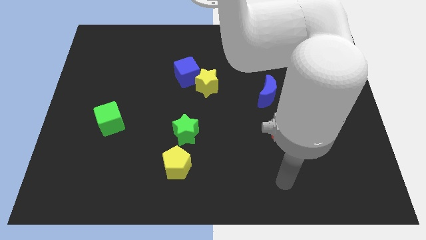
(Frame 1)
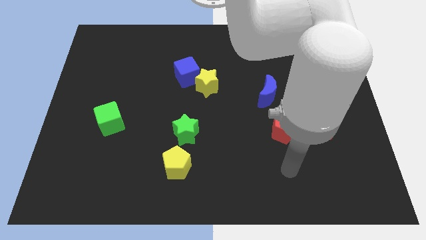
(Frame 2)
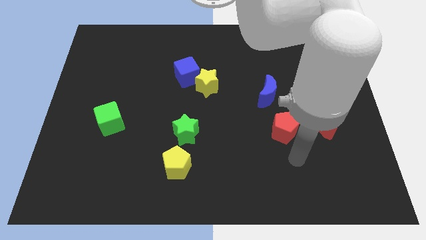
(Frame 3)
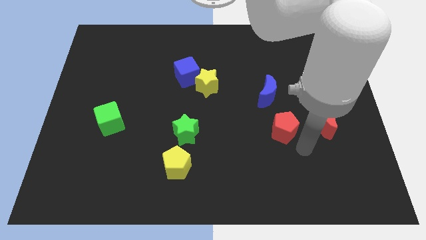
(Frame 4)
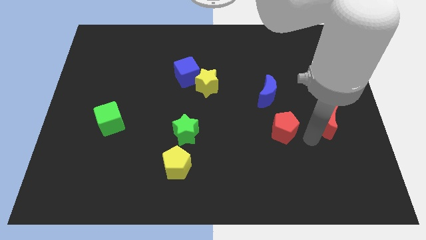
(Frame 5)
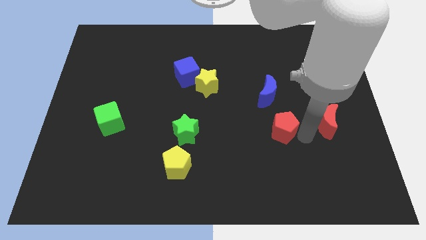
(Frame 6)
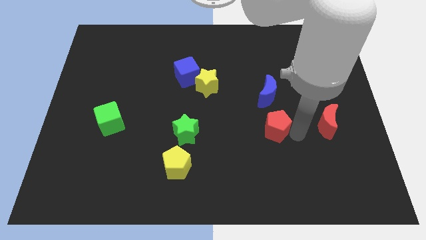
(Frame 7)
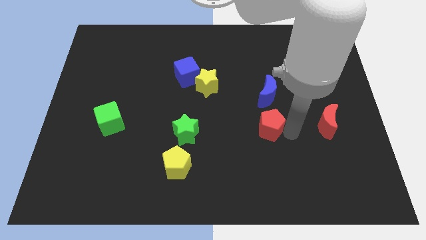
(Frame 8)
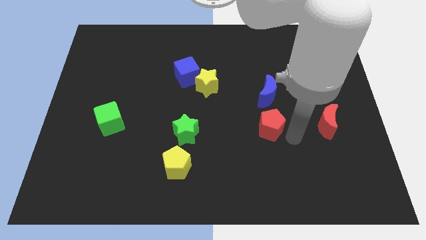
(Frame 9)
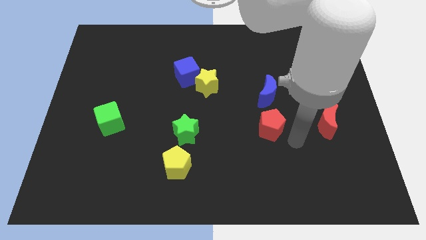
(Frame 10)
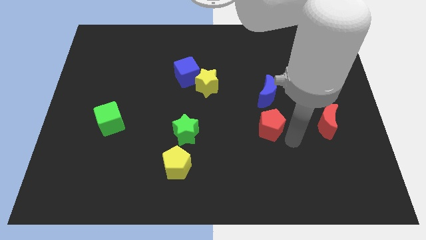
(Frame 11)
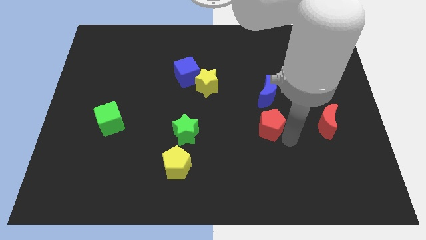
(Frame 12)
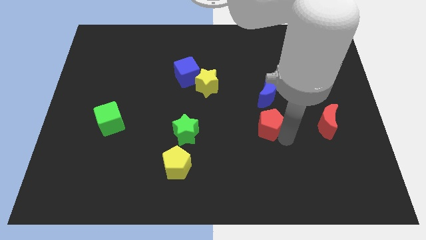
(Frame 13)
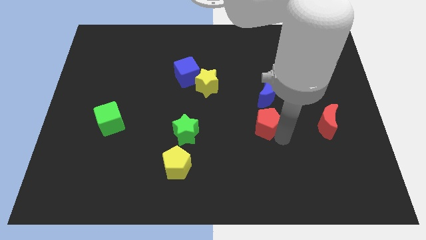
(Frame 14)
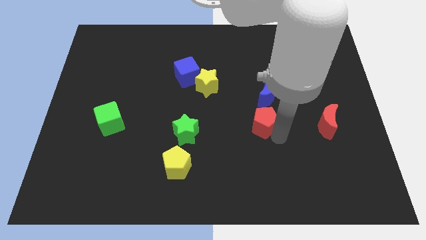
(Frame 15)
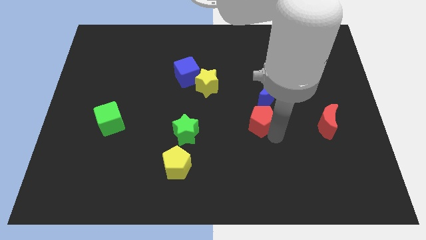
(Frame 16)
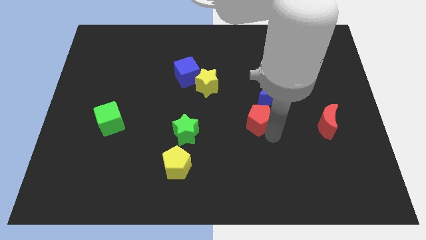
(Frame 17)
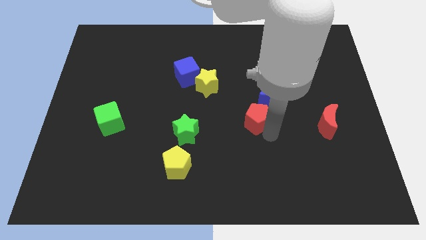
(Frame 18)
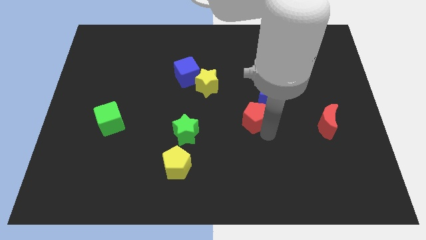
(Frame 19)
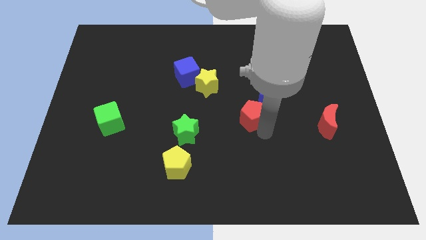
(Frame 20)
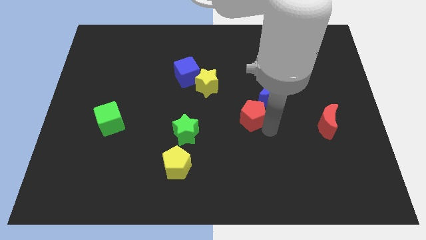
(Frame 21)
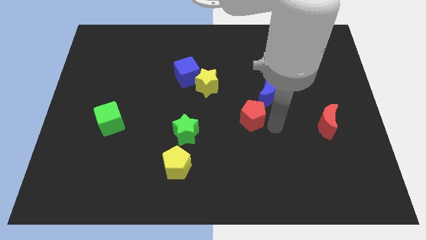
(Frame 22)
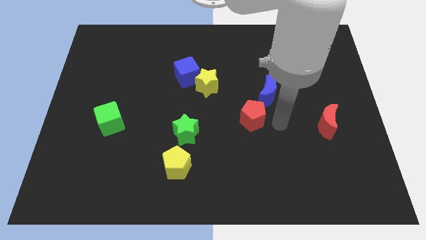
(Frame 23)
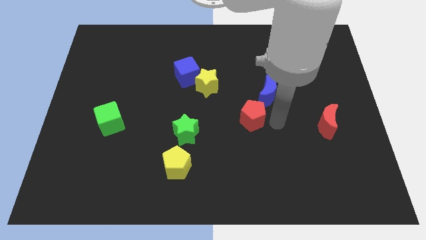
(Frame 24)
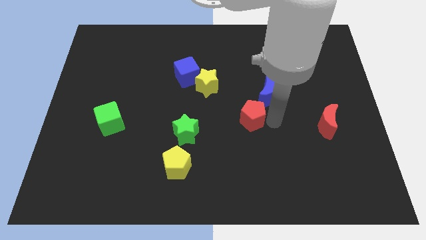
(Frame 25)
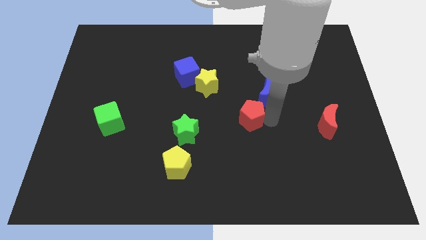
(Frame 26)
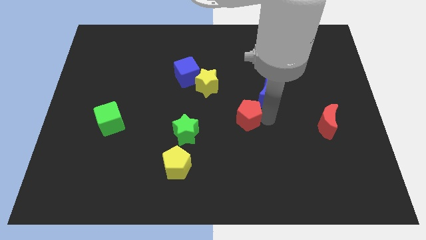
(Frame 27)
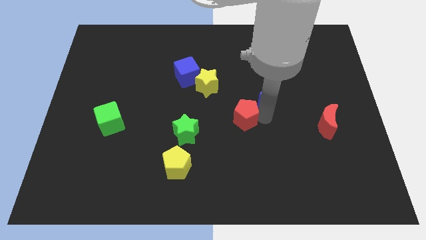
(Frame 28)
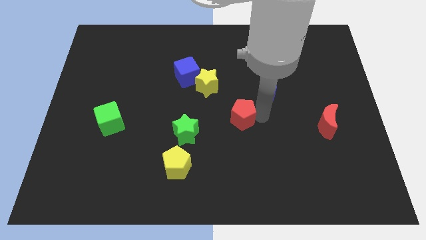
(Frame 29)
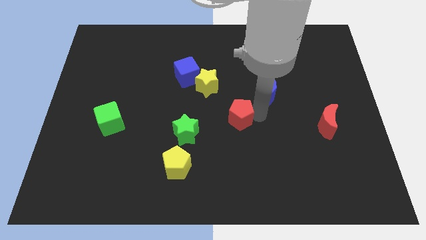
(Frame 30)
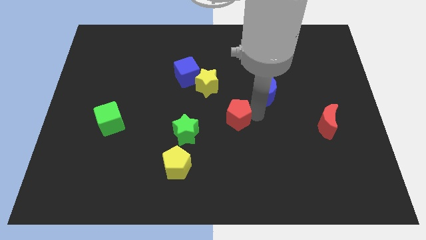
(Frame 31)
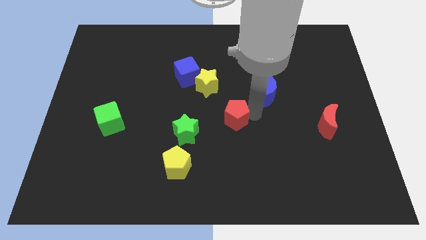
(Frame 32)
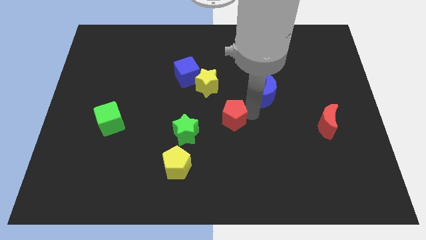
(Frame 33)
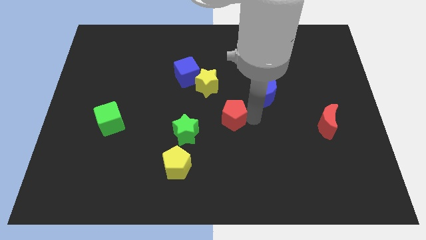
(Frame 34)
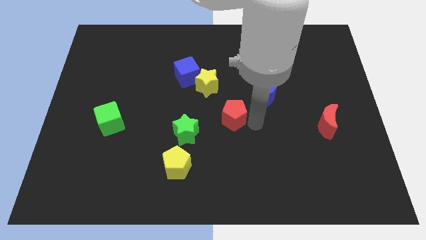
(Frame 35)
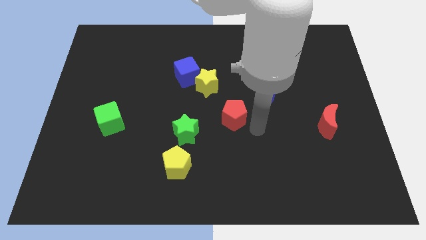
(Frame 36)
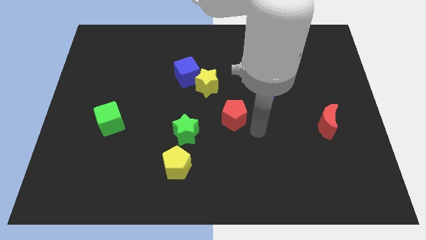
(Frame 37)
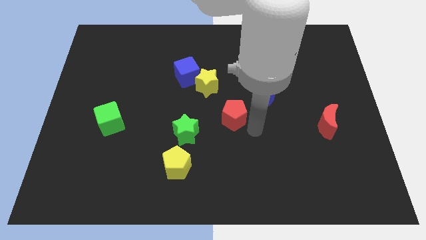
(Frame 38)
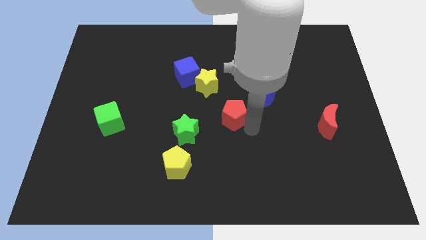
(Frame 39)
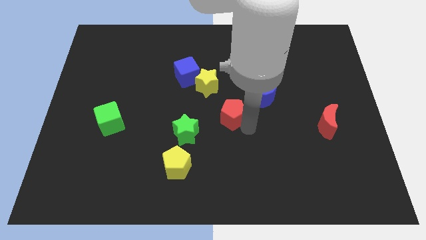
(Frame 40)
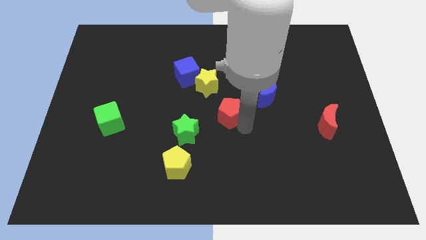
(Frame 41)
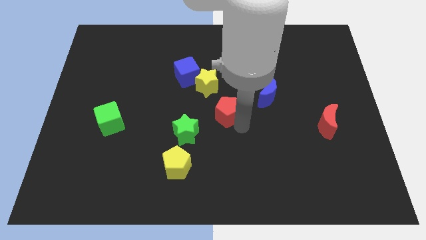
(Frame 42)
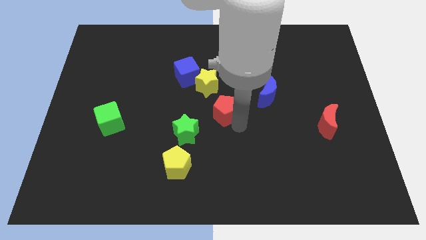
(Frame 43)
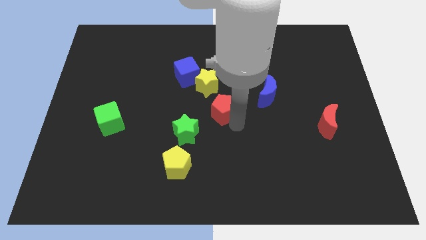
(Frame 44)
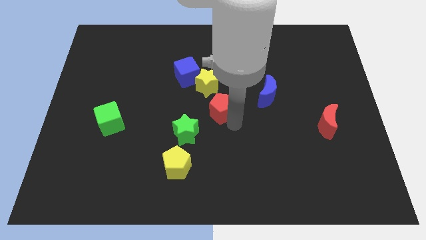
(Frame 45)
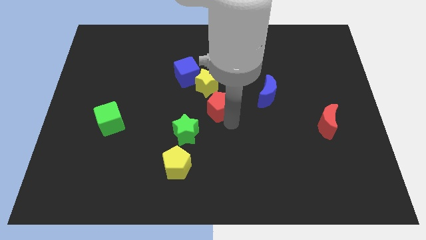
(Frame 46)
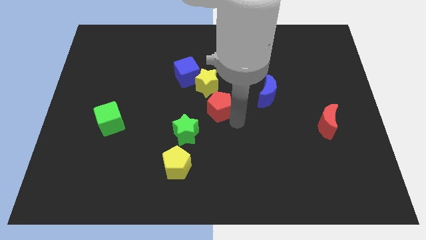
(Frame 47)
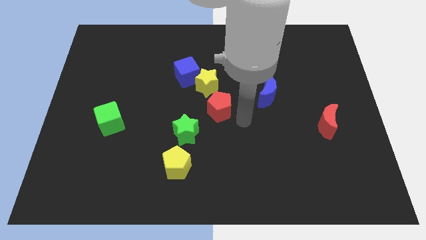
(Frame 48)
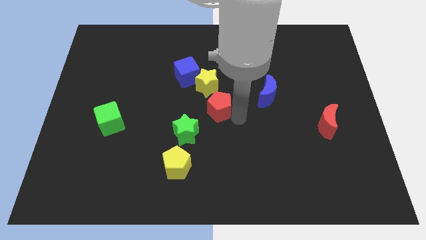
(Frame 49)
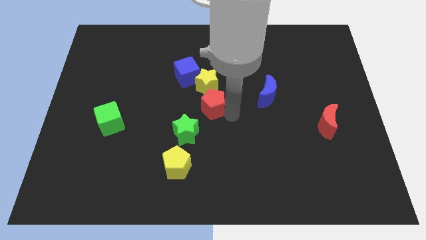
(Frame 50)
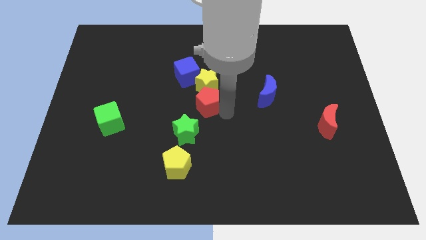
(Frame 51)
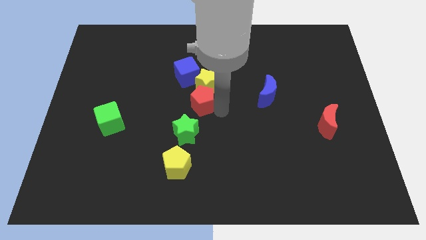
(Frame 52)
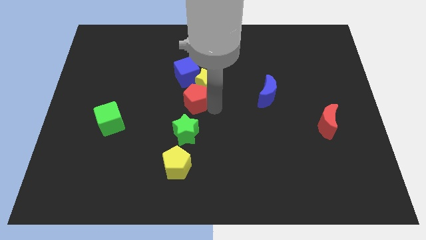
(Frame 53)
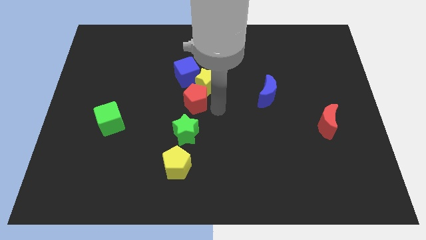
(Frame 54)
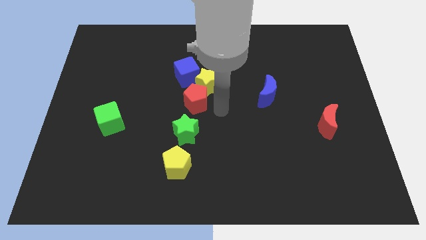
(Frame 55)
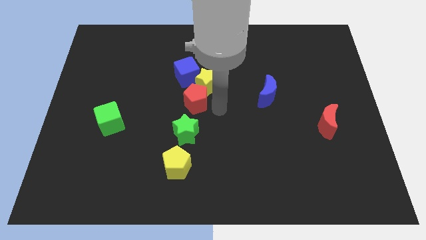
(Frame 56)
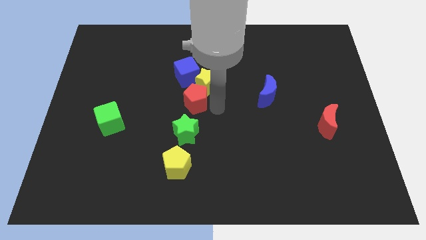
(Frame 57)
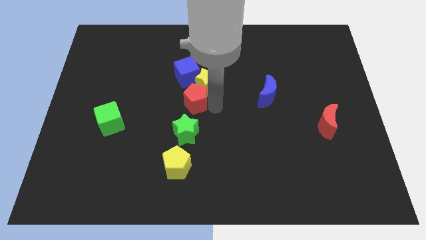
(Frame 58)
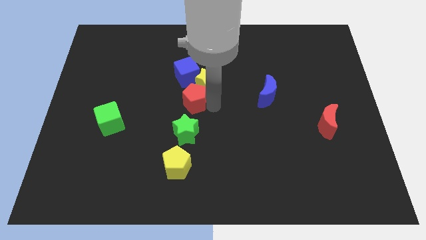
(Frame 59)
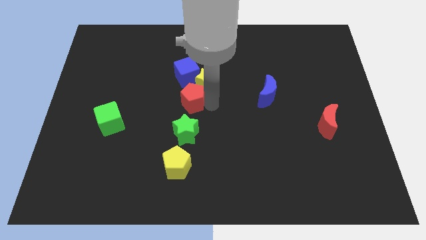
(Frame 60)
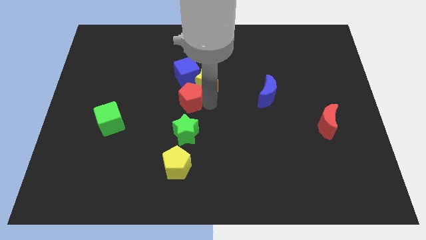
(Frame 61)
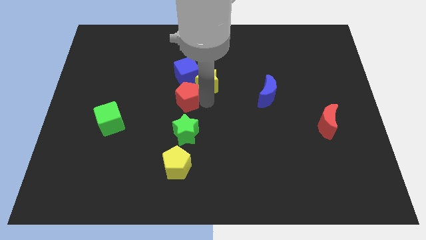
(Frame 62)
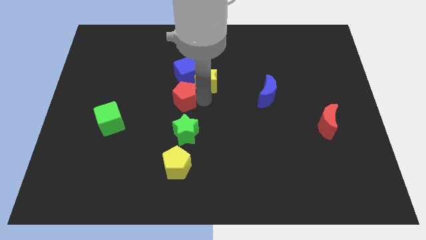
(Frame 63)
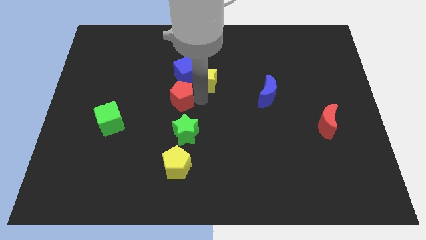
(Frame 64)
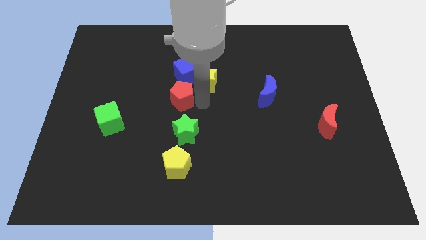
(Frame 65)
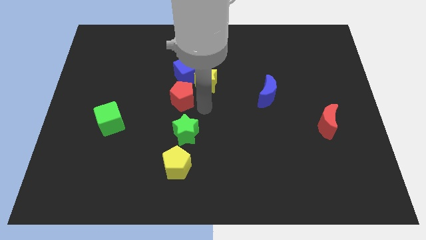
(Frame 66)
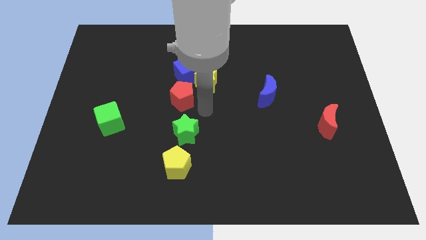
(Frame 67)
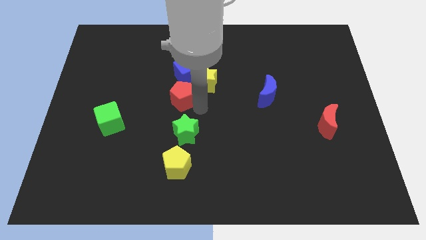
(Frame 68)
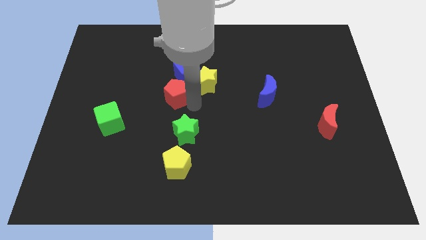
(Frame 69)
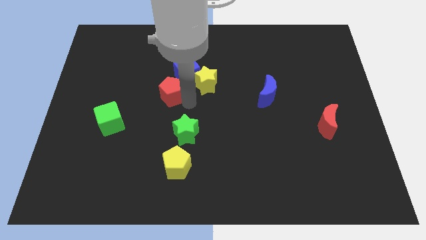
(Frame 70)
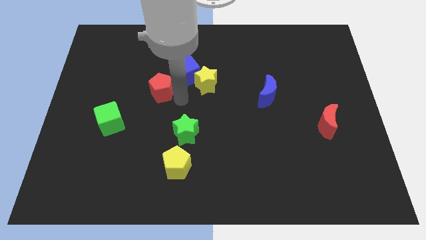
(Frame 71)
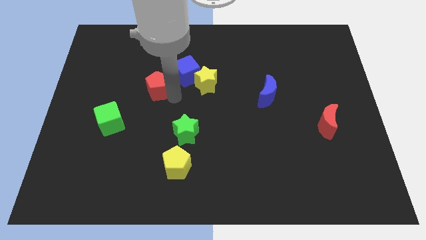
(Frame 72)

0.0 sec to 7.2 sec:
push the red pentagon left of the blue cube
